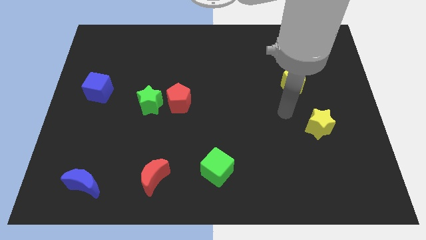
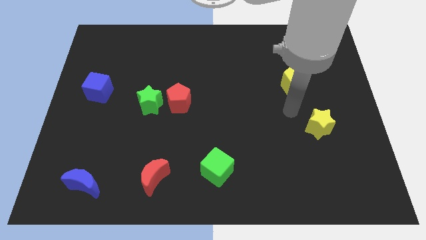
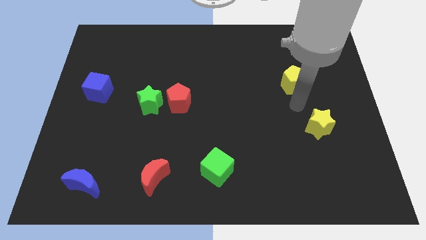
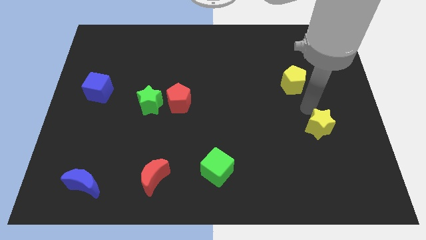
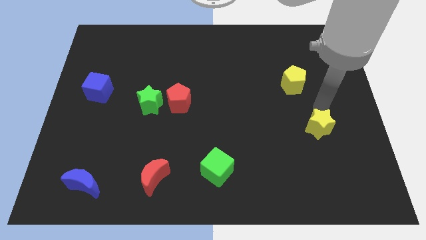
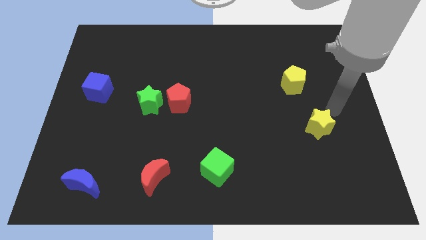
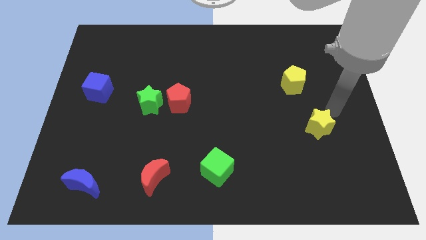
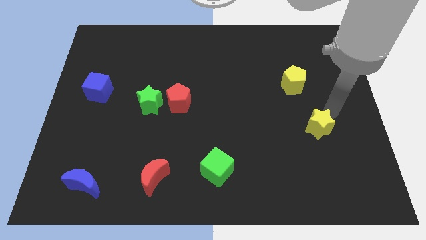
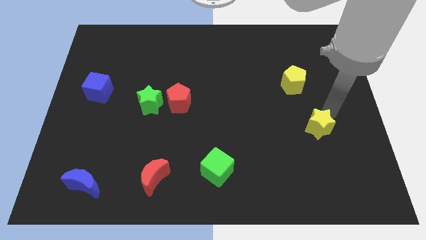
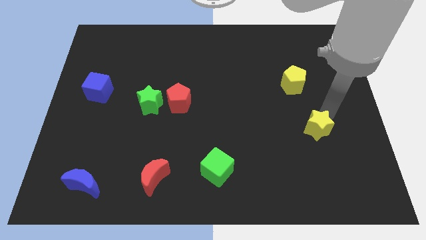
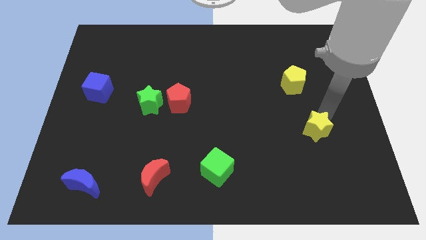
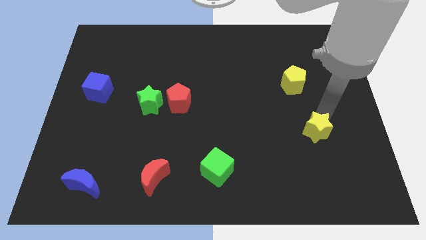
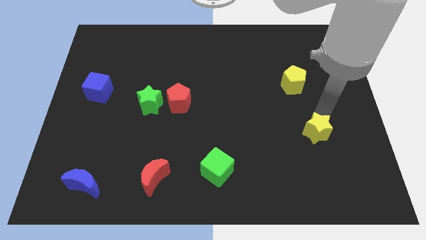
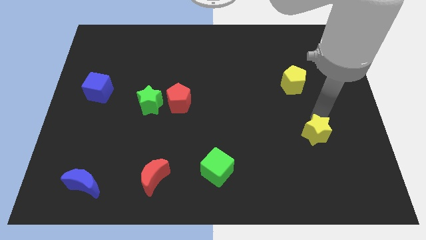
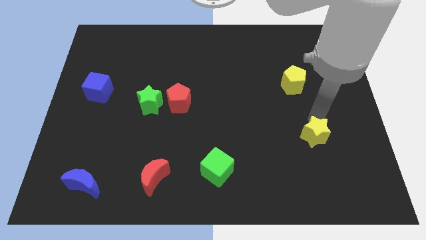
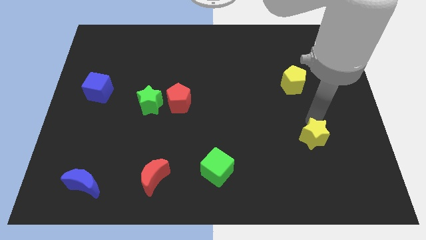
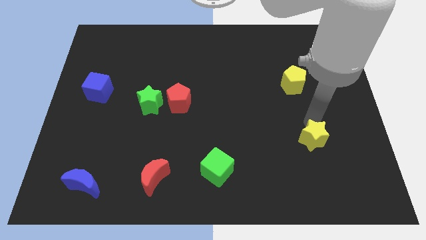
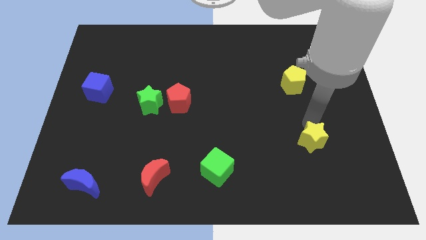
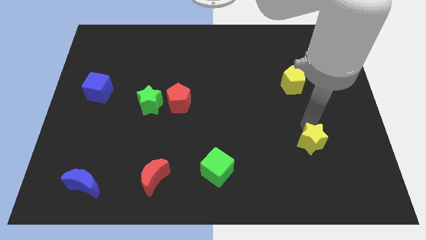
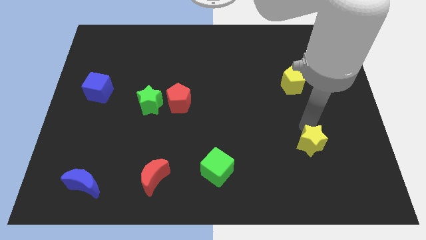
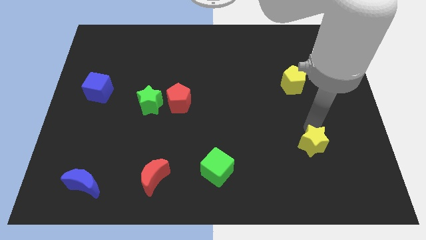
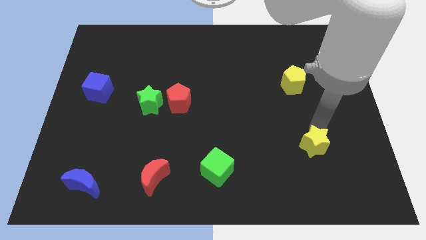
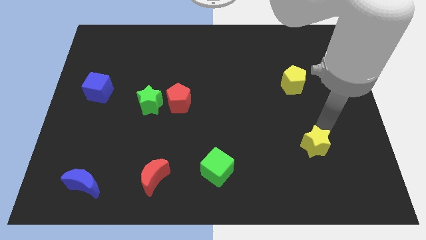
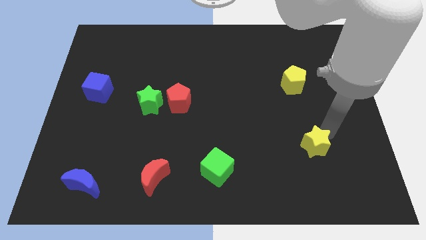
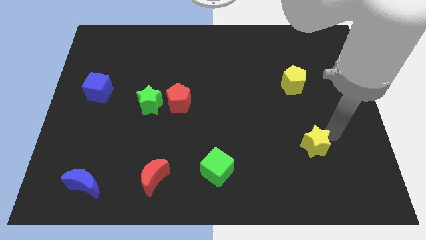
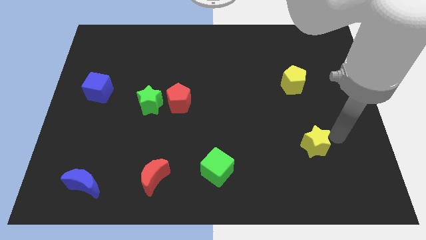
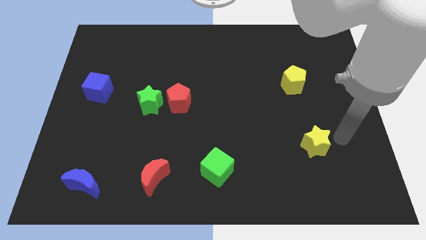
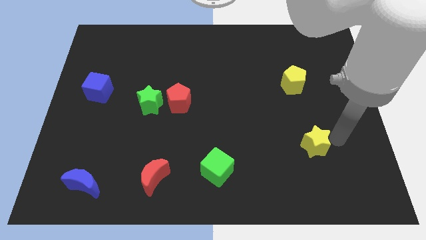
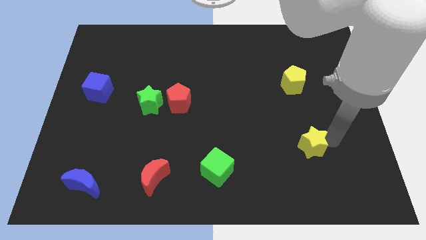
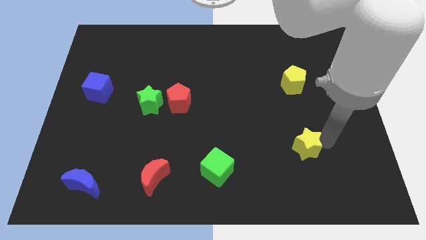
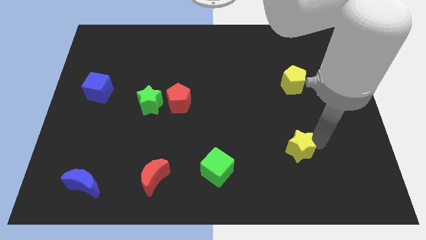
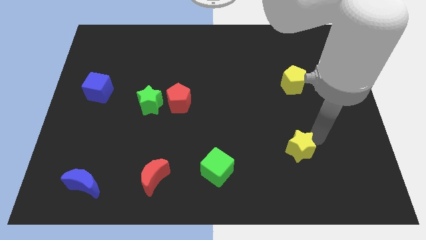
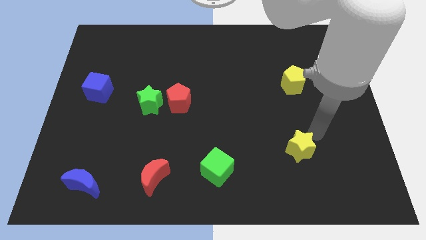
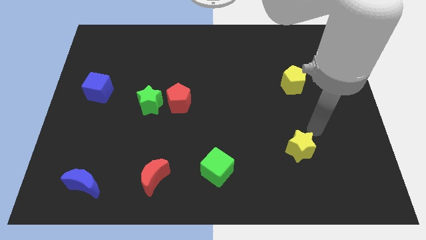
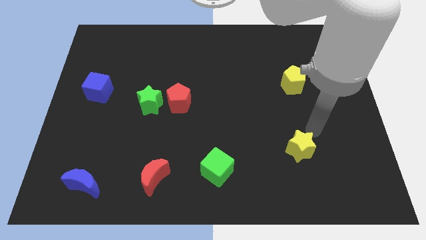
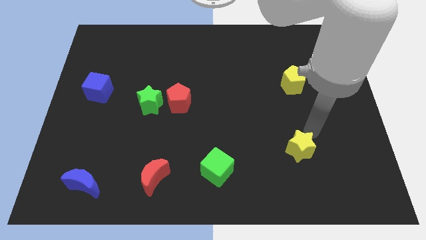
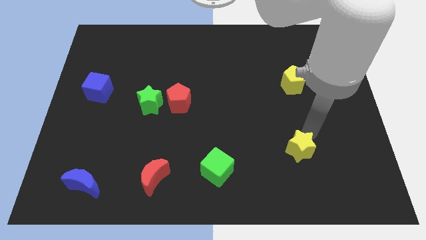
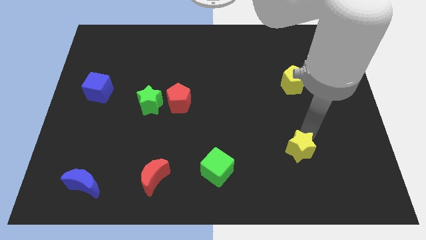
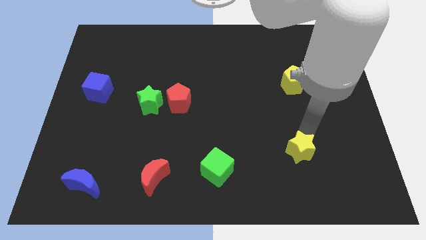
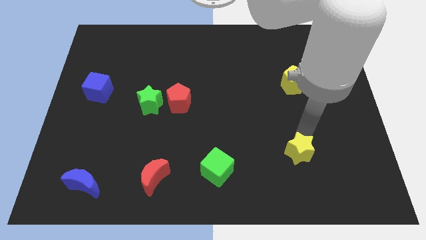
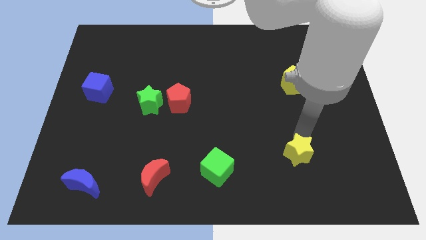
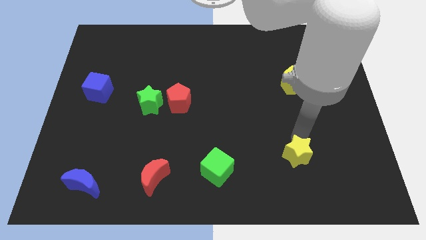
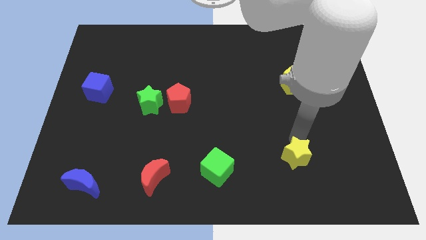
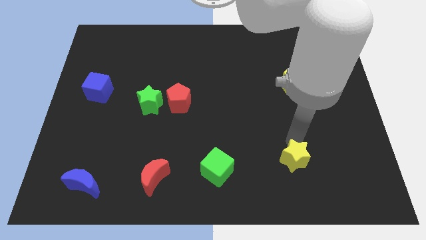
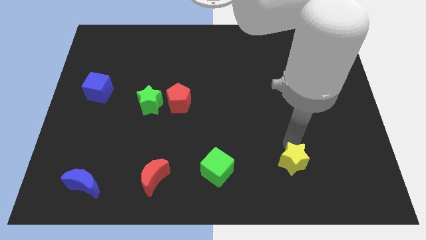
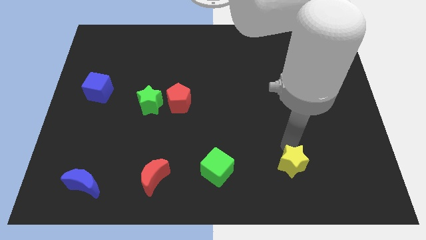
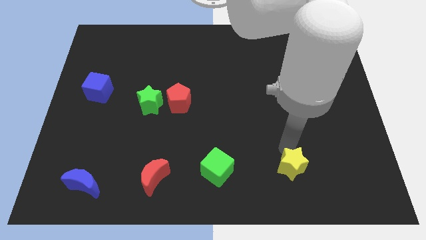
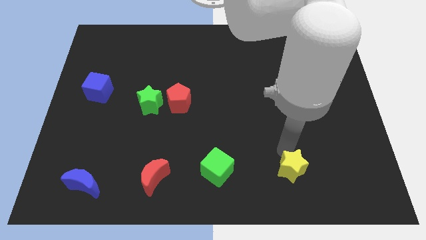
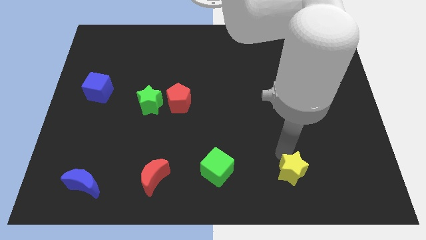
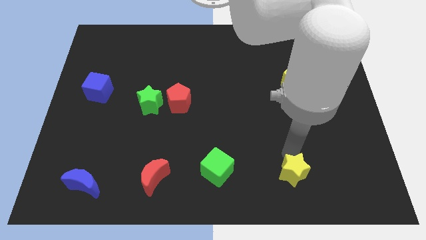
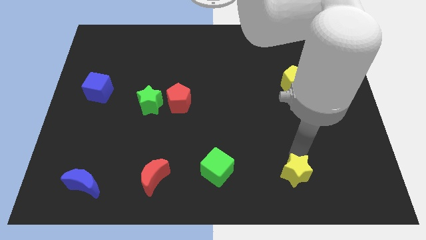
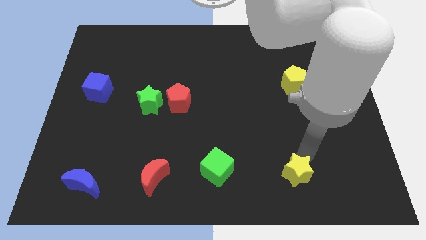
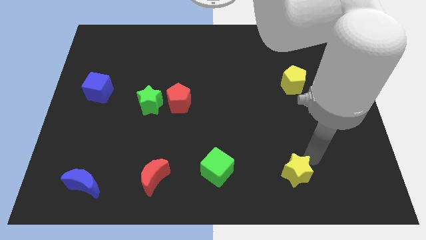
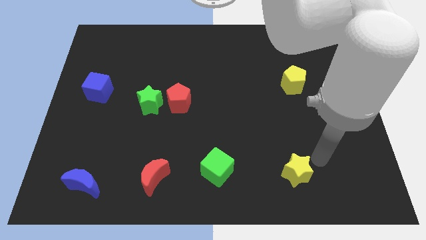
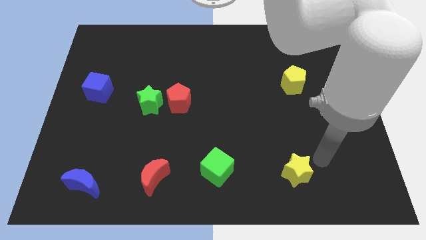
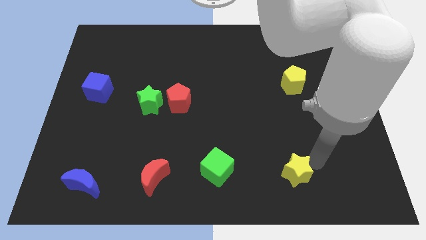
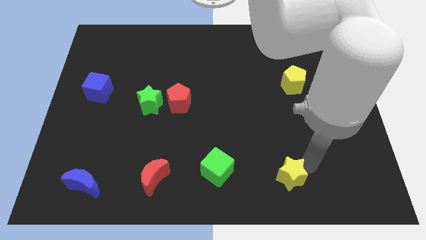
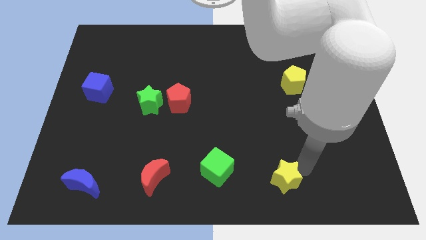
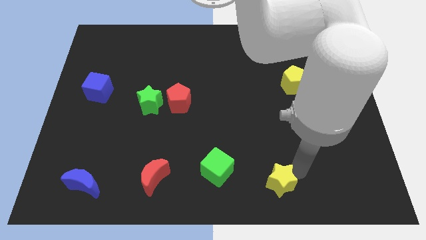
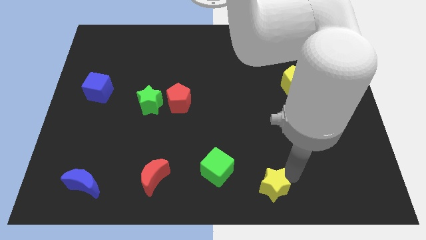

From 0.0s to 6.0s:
slide the yellow star to the bottom
